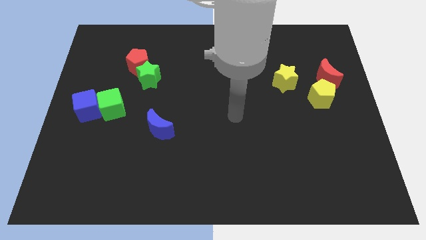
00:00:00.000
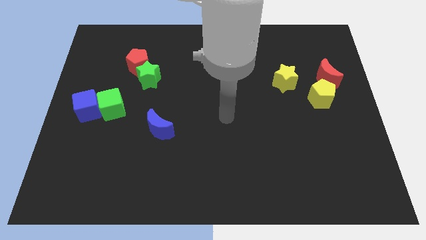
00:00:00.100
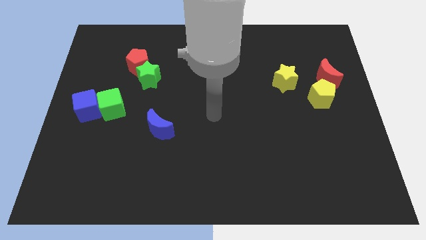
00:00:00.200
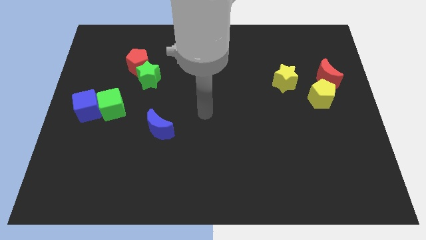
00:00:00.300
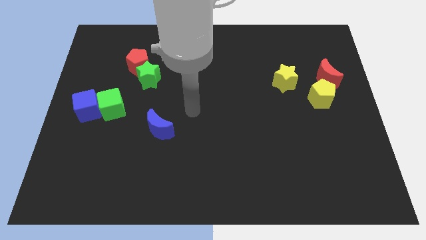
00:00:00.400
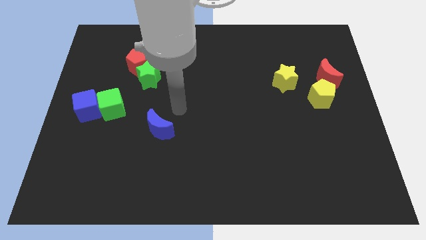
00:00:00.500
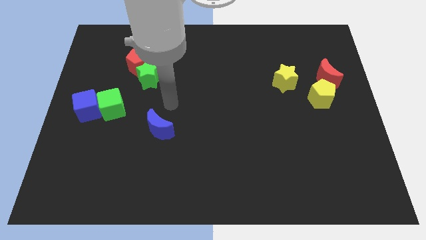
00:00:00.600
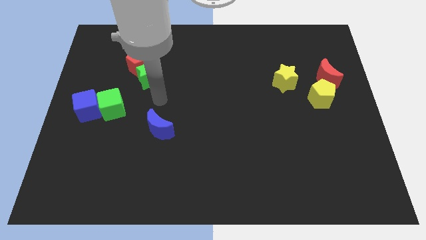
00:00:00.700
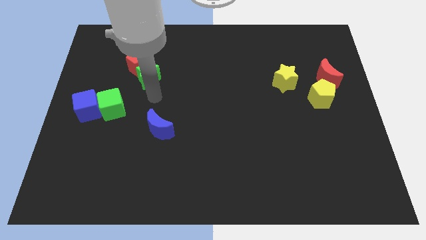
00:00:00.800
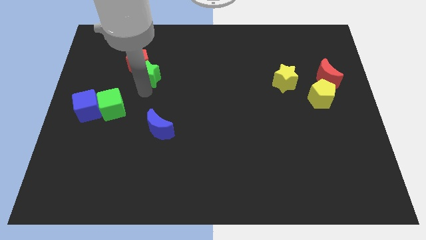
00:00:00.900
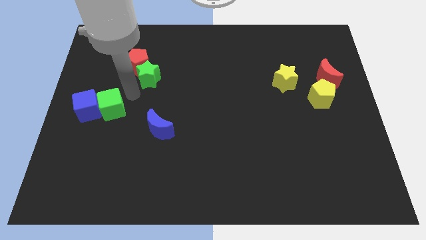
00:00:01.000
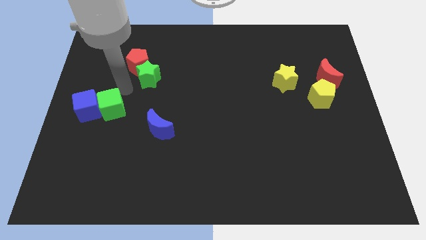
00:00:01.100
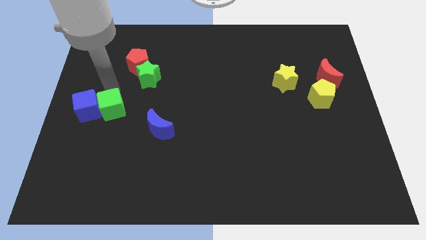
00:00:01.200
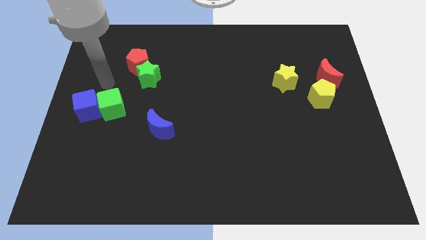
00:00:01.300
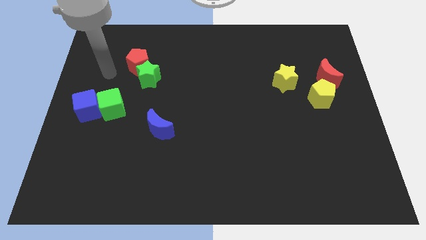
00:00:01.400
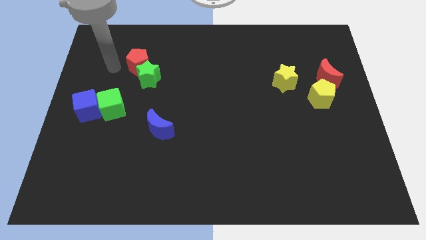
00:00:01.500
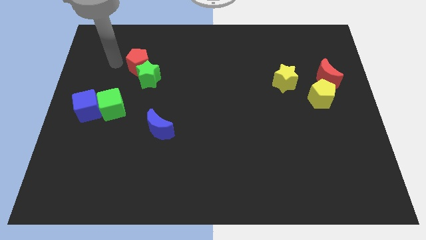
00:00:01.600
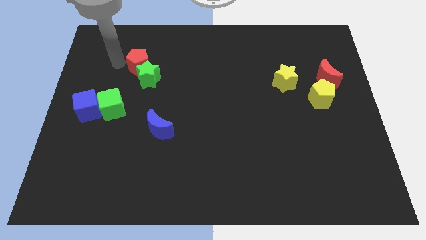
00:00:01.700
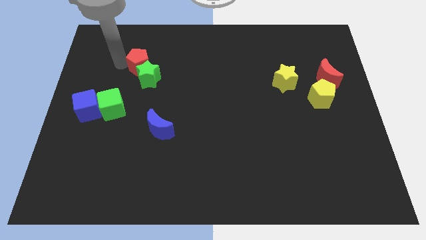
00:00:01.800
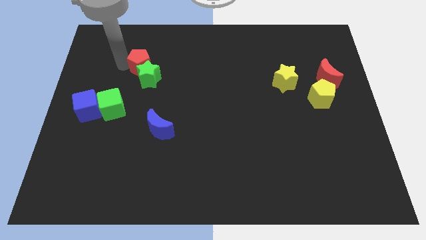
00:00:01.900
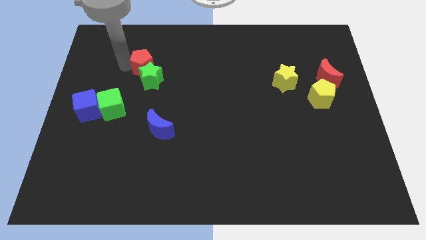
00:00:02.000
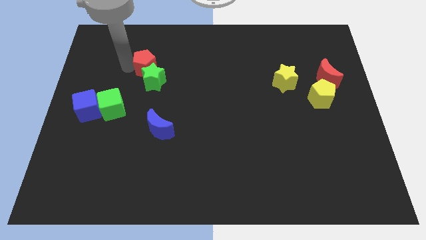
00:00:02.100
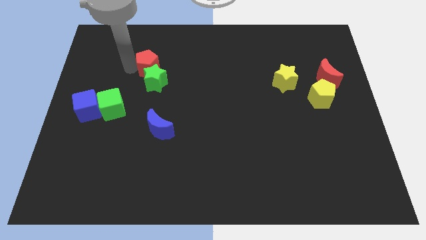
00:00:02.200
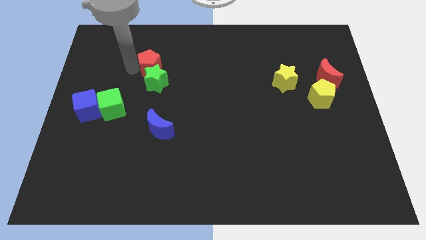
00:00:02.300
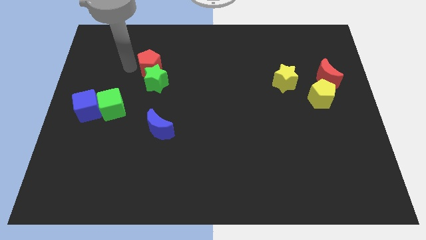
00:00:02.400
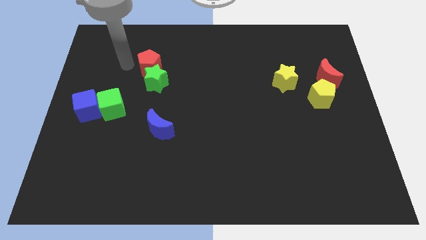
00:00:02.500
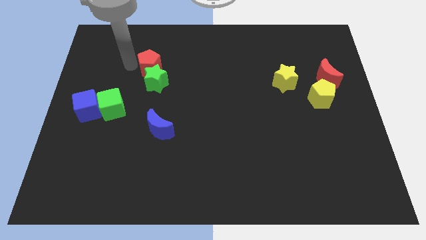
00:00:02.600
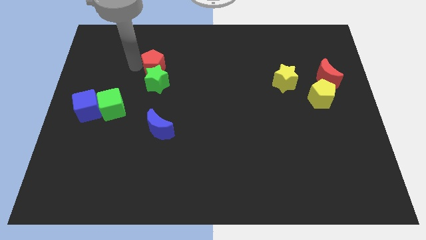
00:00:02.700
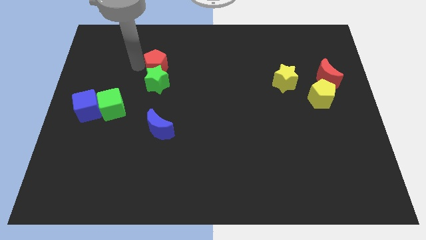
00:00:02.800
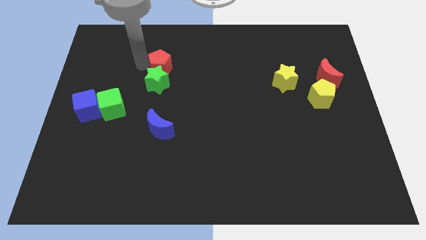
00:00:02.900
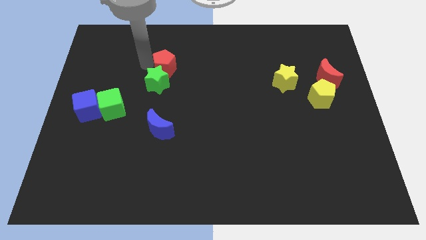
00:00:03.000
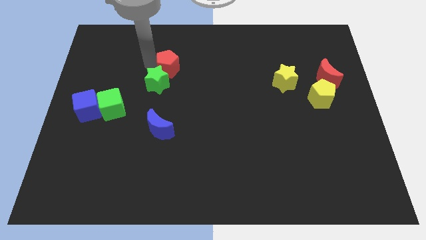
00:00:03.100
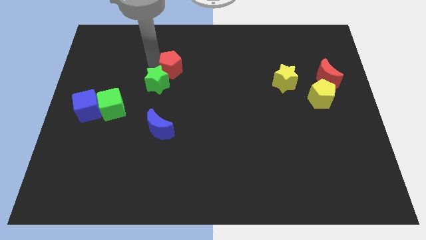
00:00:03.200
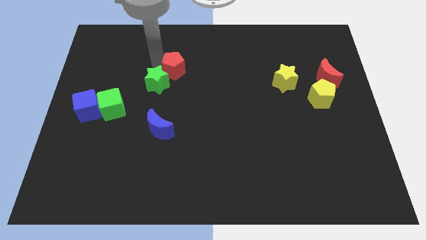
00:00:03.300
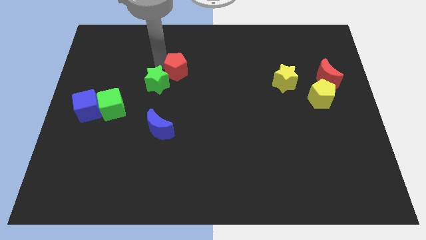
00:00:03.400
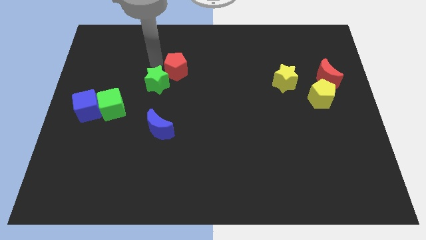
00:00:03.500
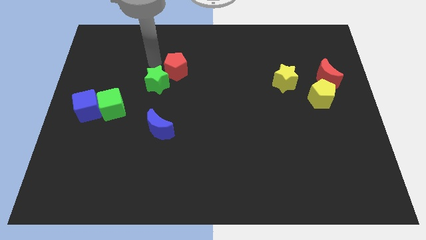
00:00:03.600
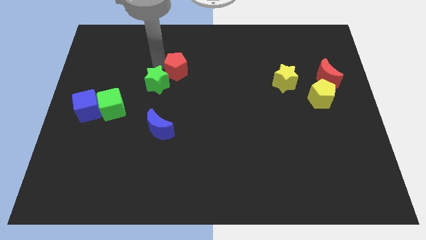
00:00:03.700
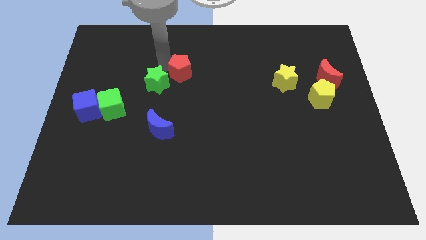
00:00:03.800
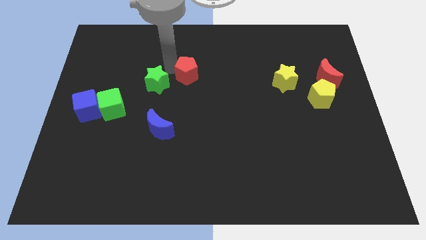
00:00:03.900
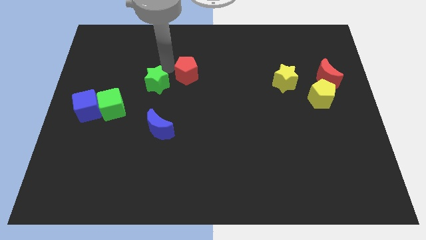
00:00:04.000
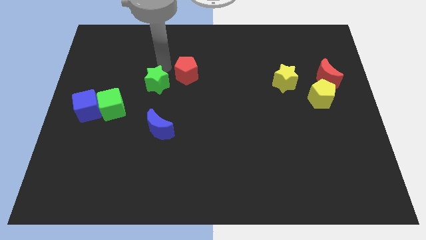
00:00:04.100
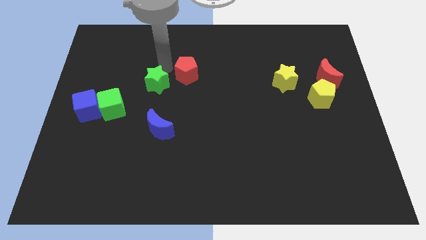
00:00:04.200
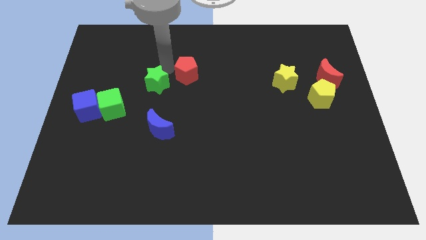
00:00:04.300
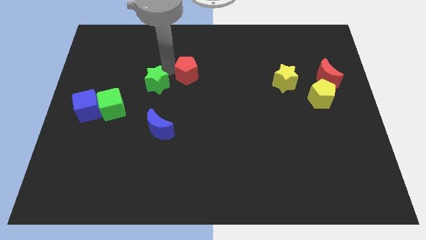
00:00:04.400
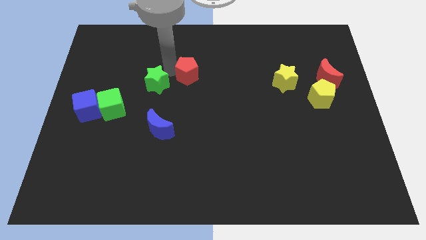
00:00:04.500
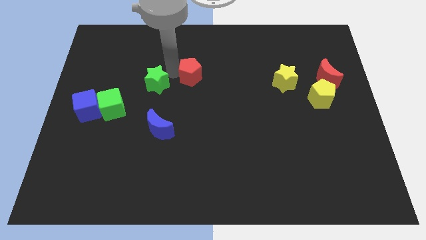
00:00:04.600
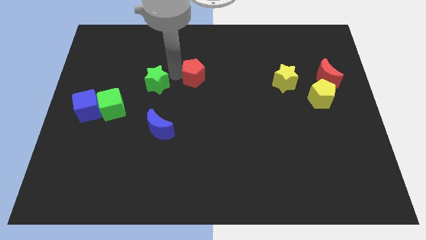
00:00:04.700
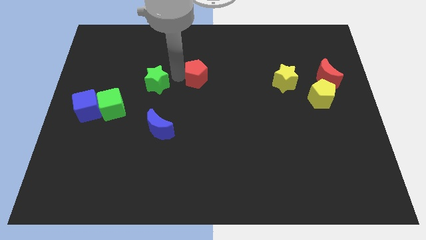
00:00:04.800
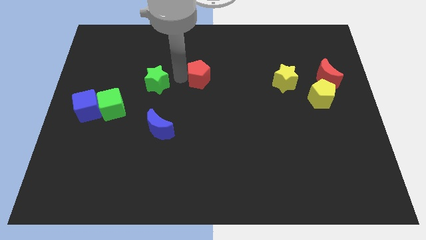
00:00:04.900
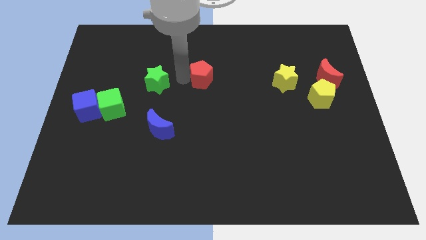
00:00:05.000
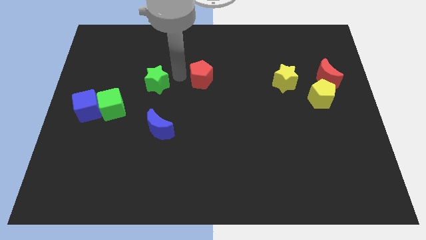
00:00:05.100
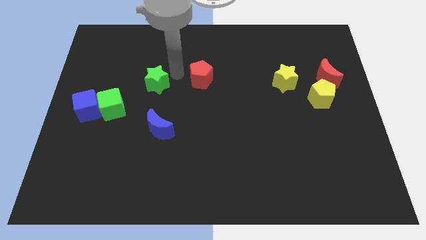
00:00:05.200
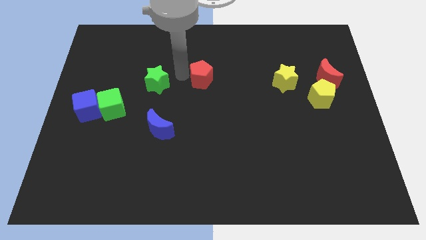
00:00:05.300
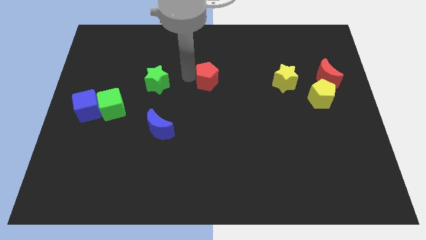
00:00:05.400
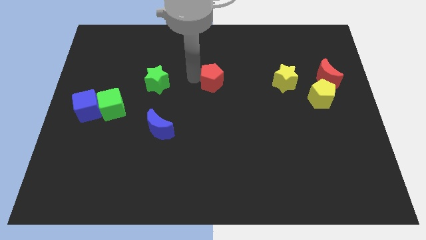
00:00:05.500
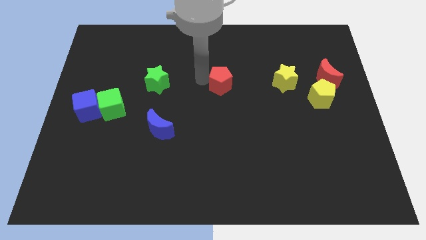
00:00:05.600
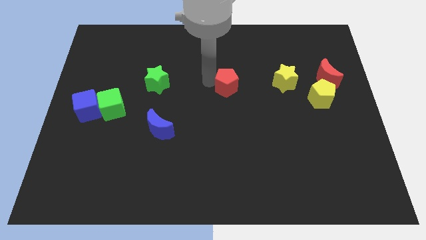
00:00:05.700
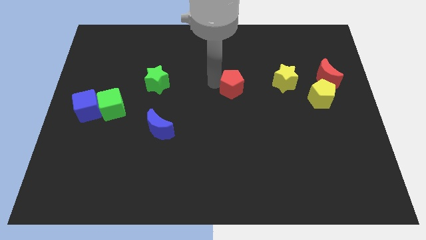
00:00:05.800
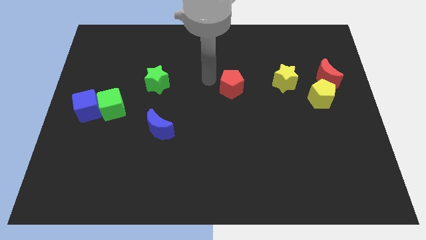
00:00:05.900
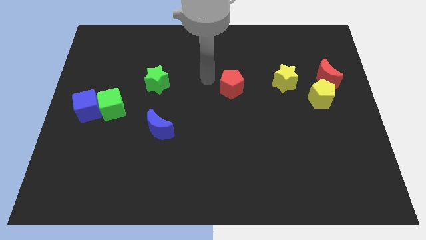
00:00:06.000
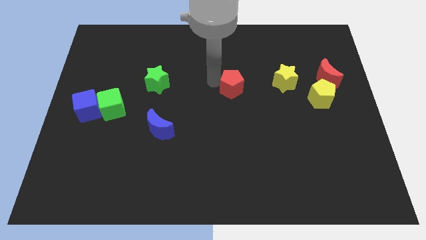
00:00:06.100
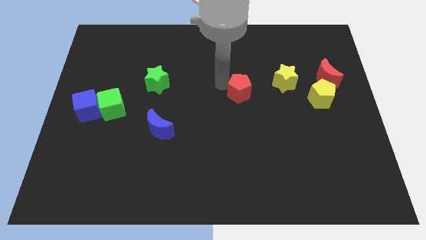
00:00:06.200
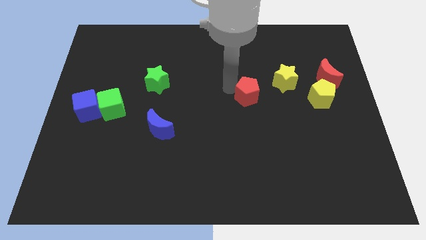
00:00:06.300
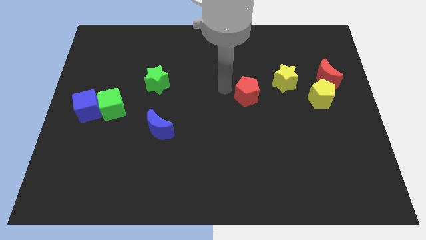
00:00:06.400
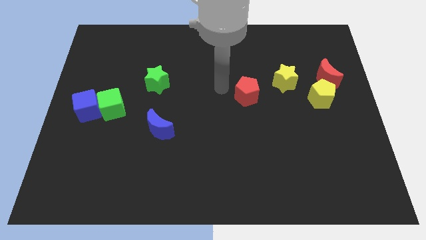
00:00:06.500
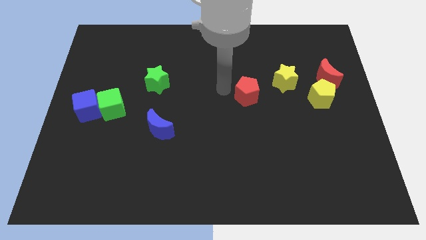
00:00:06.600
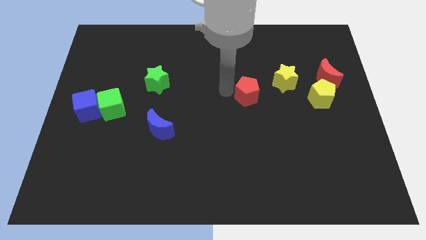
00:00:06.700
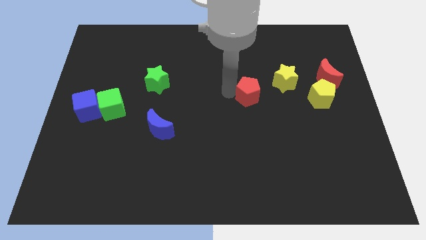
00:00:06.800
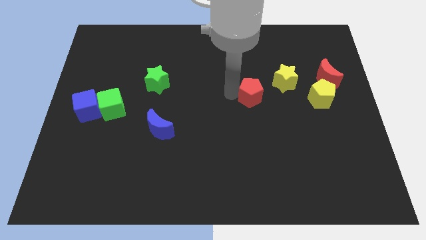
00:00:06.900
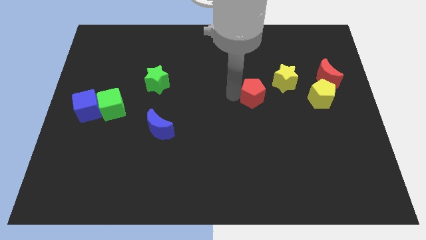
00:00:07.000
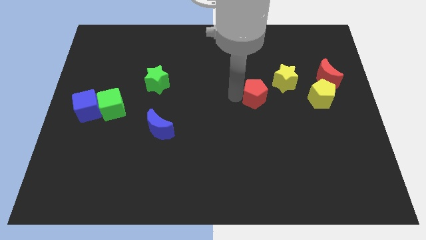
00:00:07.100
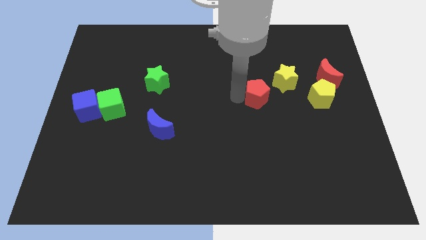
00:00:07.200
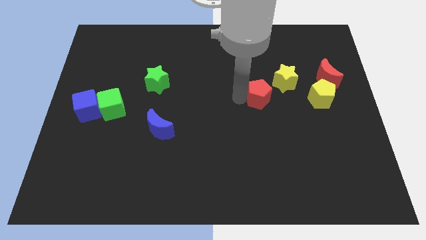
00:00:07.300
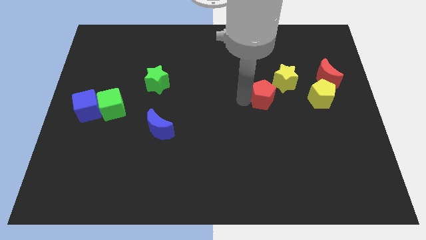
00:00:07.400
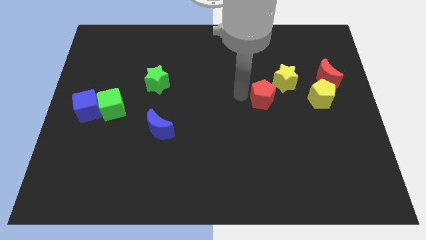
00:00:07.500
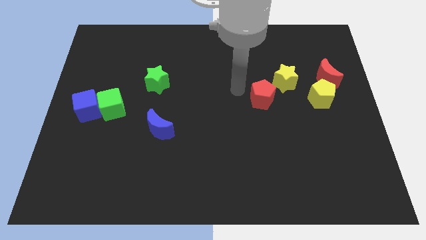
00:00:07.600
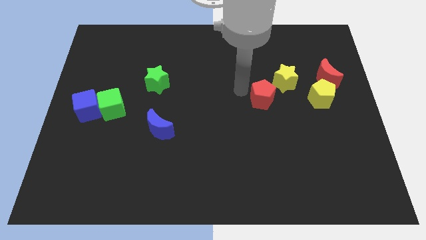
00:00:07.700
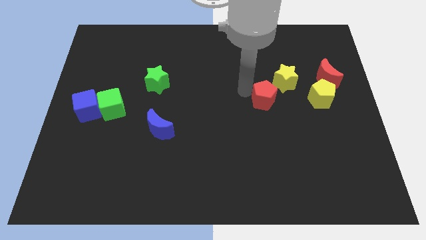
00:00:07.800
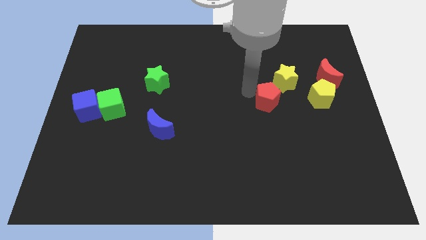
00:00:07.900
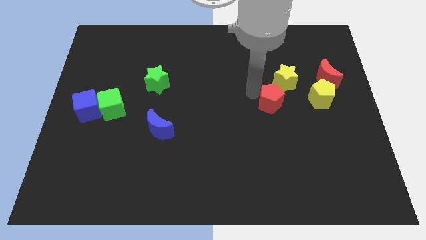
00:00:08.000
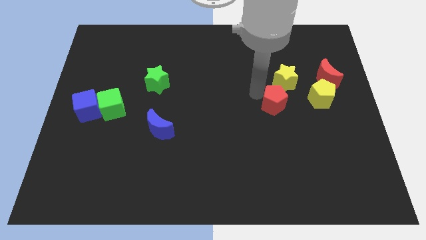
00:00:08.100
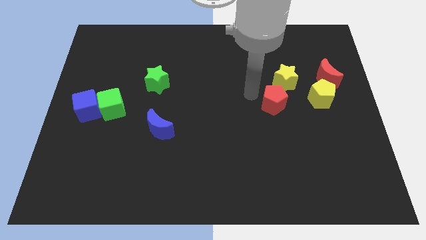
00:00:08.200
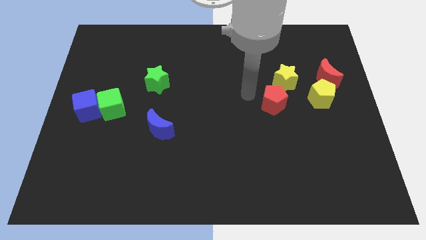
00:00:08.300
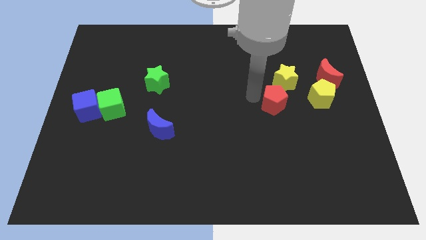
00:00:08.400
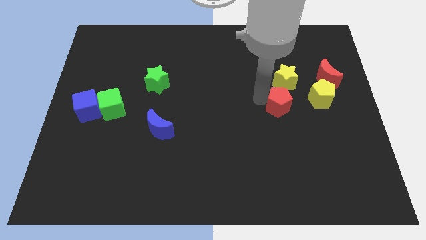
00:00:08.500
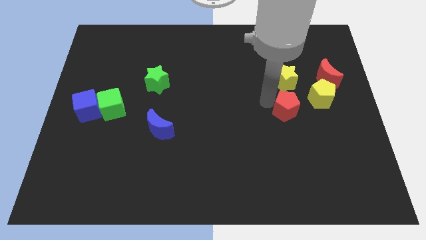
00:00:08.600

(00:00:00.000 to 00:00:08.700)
move the red pentagon to the bottom left side of the yellow pentagon
